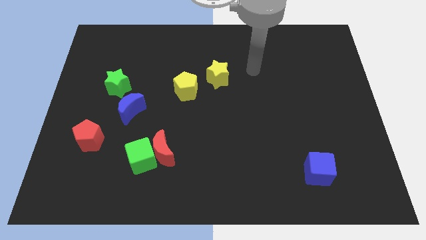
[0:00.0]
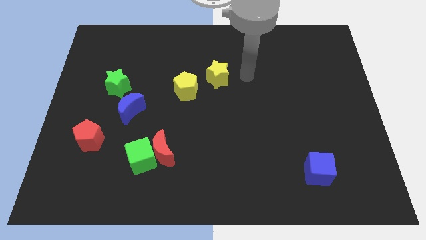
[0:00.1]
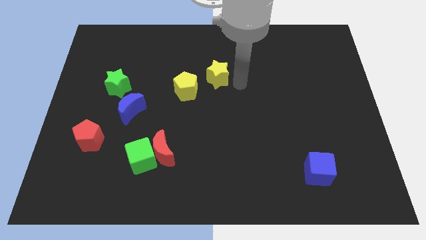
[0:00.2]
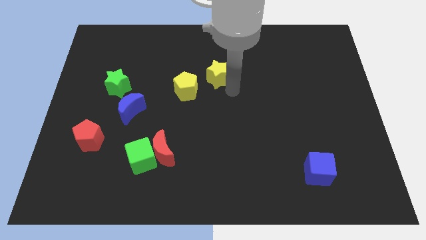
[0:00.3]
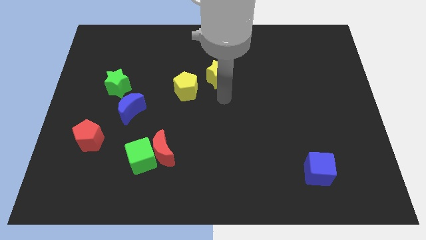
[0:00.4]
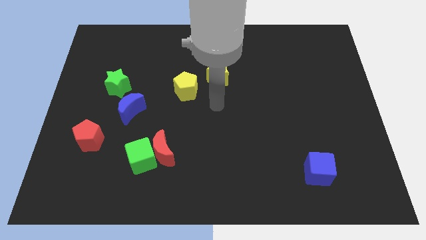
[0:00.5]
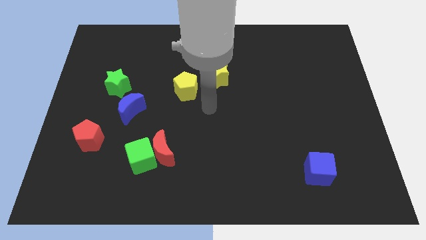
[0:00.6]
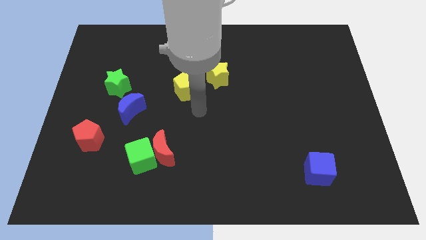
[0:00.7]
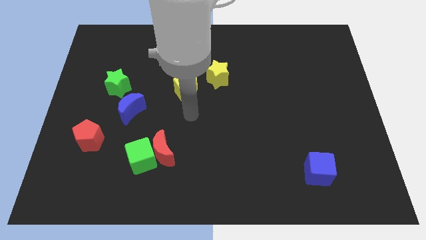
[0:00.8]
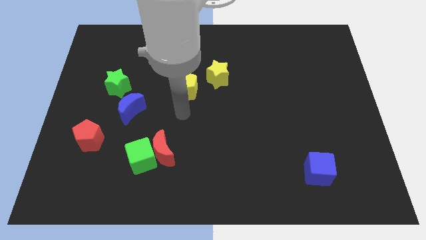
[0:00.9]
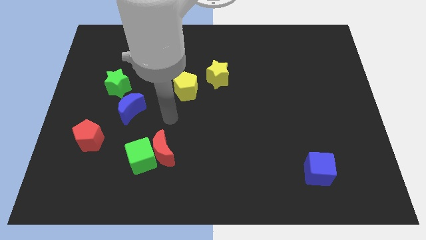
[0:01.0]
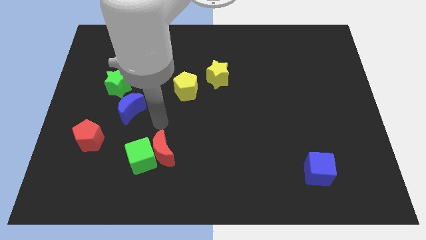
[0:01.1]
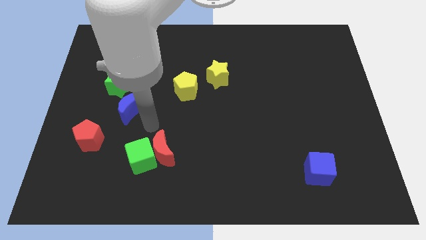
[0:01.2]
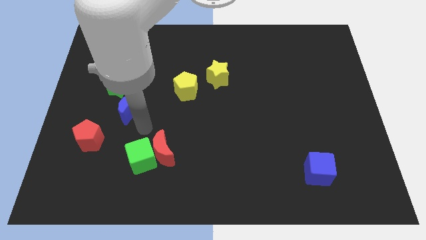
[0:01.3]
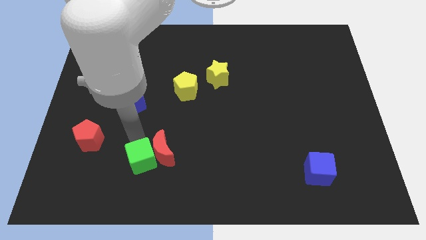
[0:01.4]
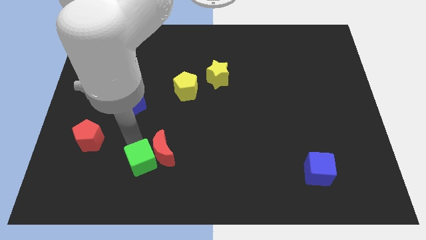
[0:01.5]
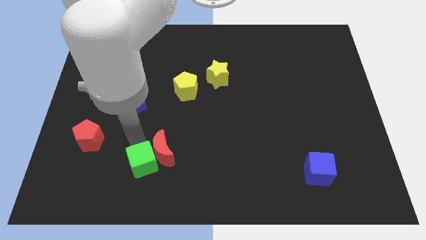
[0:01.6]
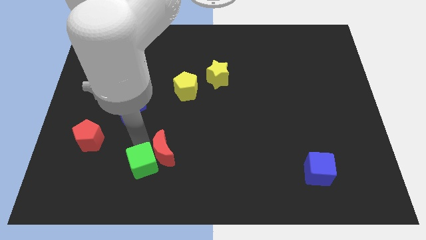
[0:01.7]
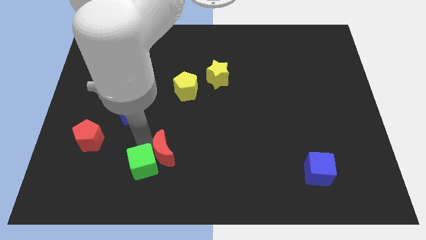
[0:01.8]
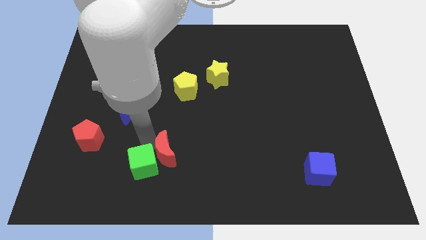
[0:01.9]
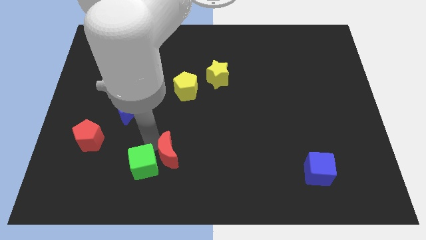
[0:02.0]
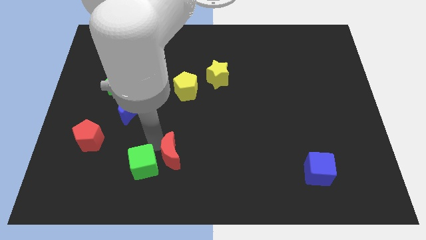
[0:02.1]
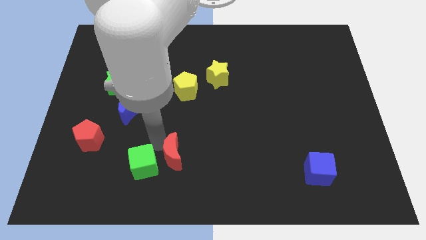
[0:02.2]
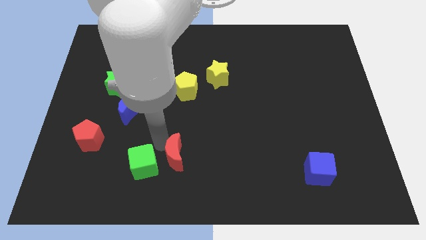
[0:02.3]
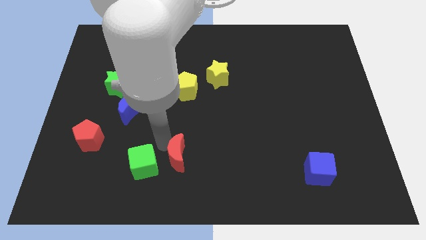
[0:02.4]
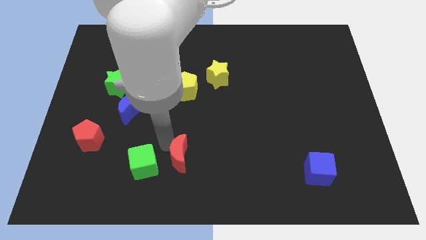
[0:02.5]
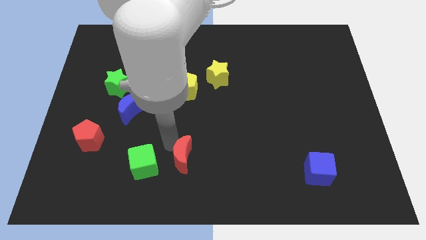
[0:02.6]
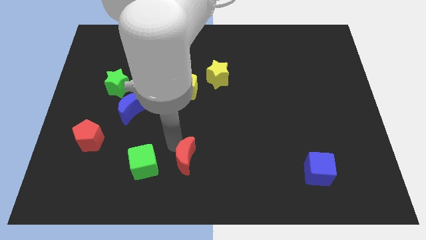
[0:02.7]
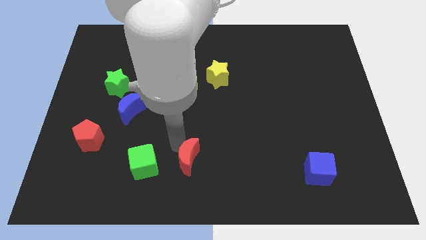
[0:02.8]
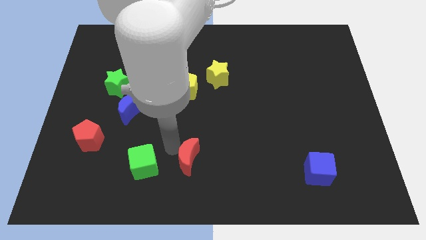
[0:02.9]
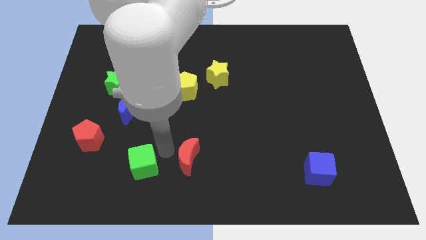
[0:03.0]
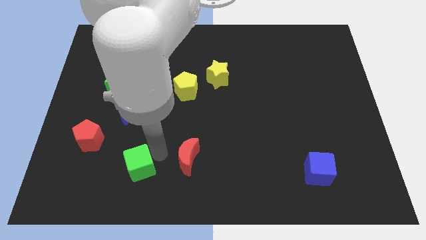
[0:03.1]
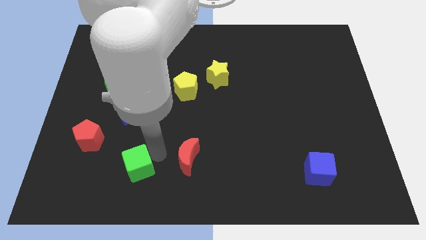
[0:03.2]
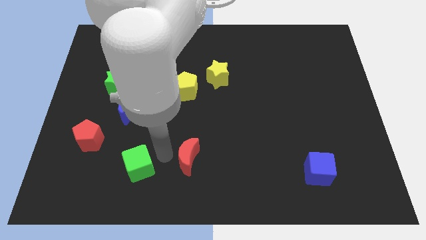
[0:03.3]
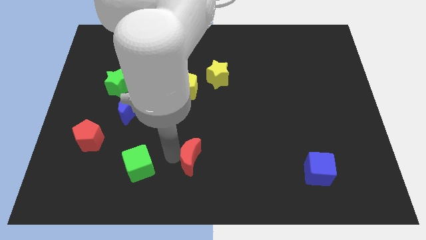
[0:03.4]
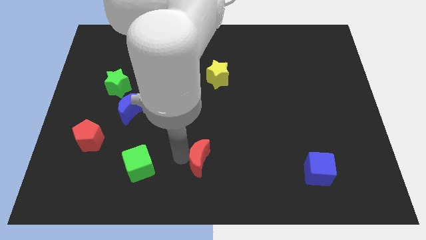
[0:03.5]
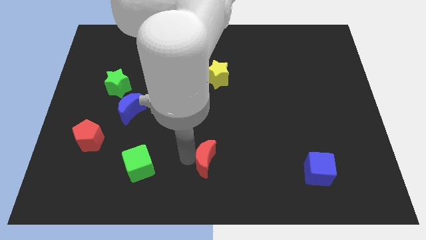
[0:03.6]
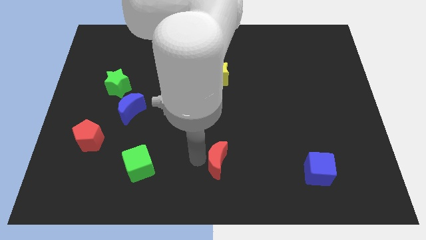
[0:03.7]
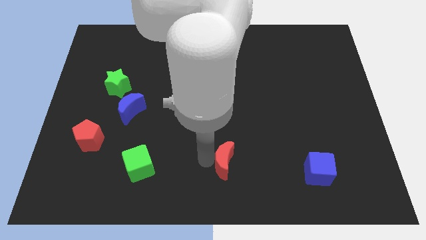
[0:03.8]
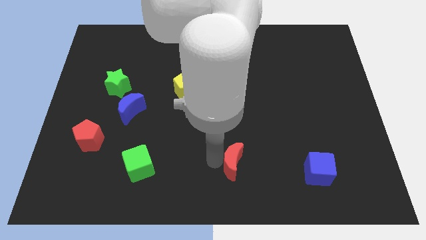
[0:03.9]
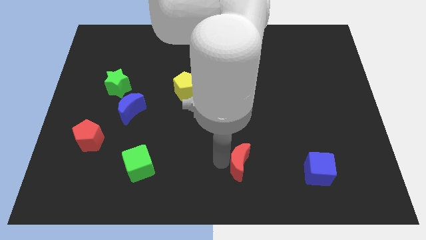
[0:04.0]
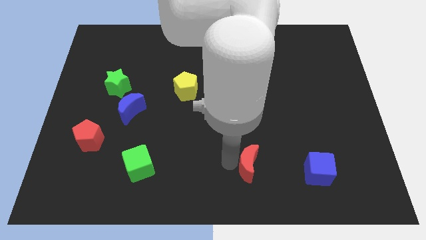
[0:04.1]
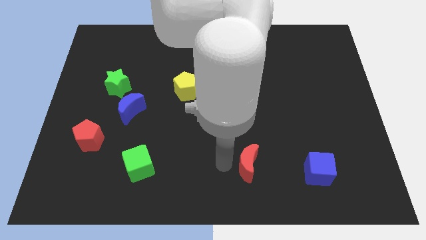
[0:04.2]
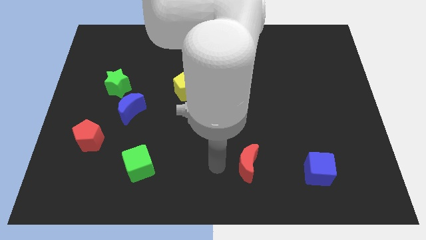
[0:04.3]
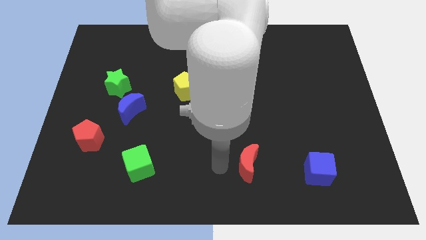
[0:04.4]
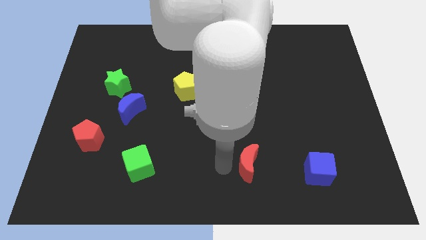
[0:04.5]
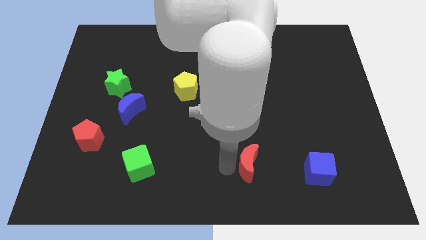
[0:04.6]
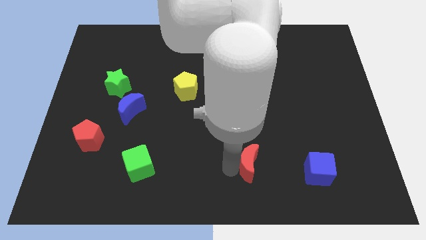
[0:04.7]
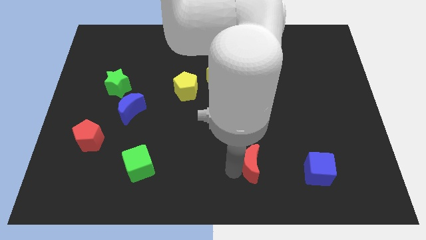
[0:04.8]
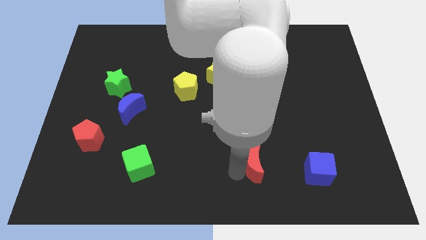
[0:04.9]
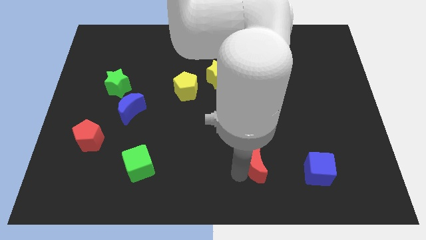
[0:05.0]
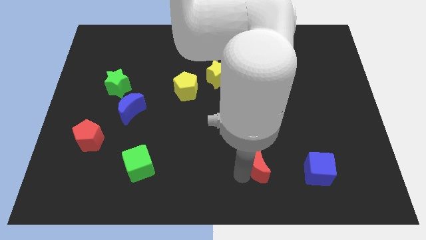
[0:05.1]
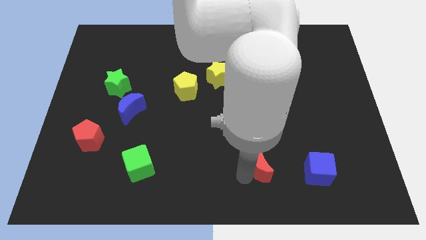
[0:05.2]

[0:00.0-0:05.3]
slide the red moon right

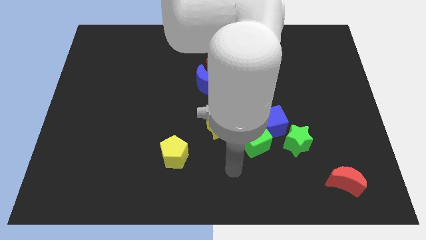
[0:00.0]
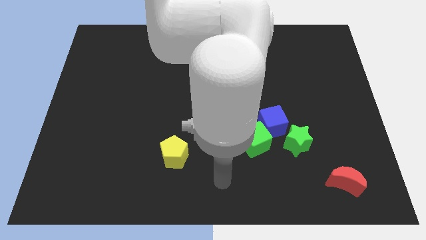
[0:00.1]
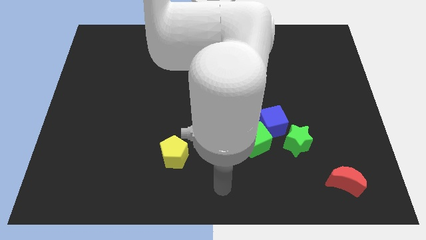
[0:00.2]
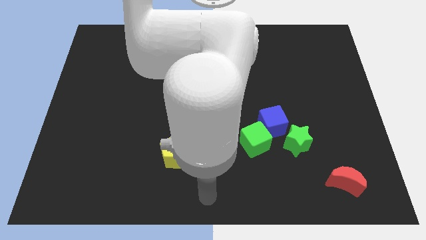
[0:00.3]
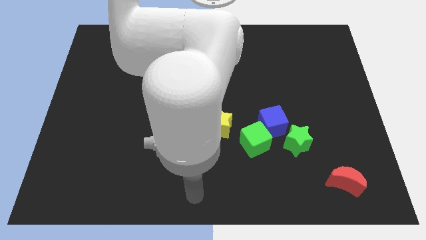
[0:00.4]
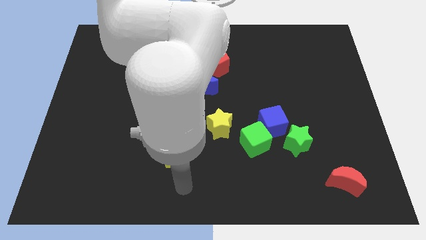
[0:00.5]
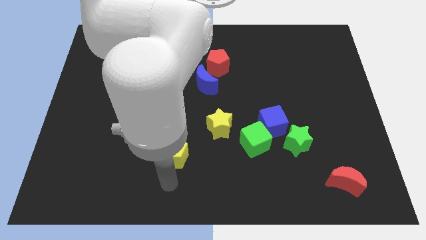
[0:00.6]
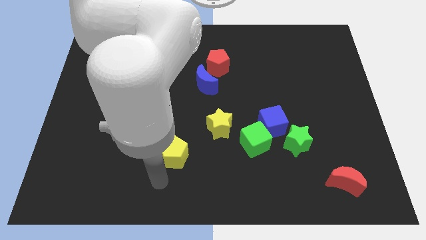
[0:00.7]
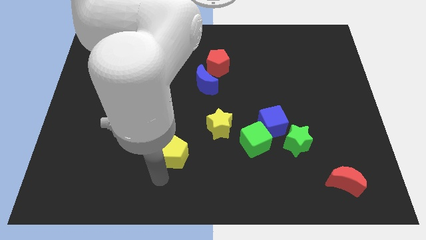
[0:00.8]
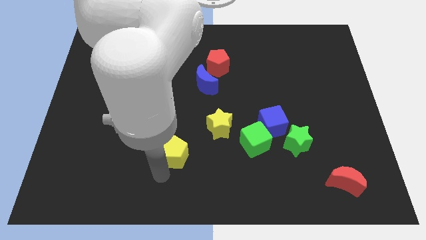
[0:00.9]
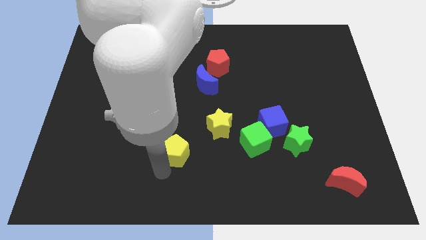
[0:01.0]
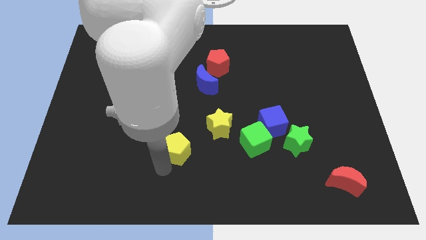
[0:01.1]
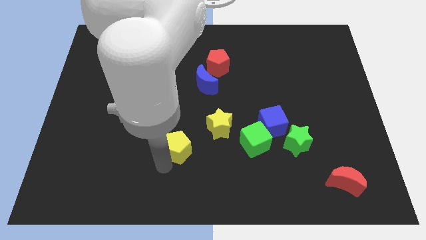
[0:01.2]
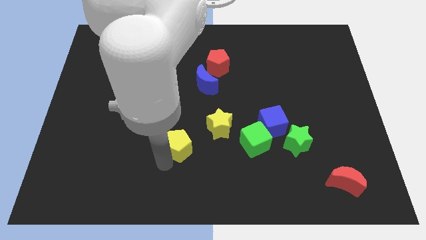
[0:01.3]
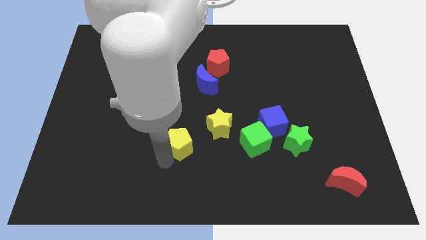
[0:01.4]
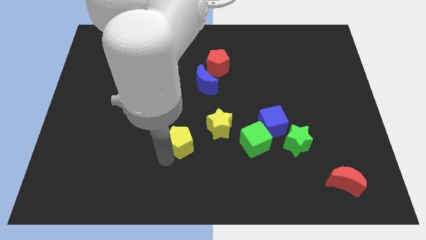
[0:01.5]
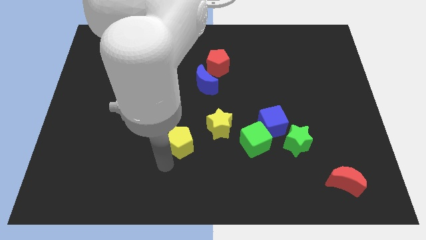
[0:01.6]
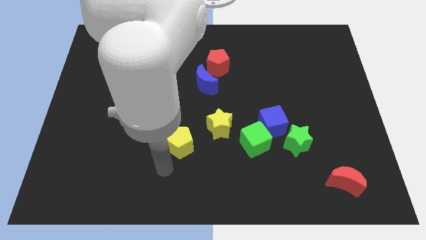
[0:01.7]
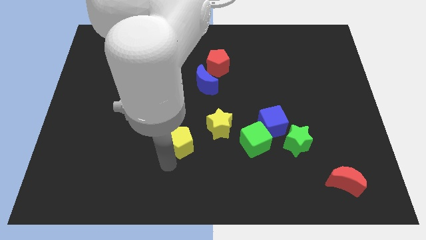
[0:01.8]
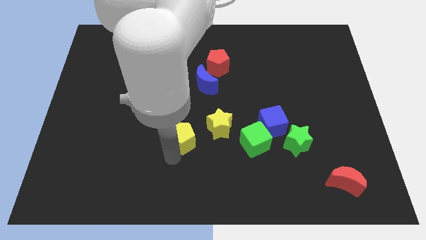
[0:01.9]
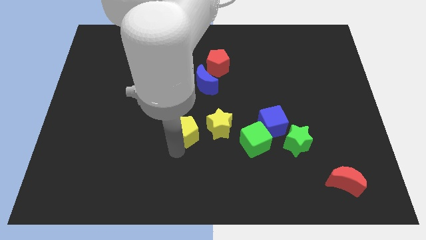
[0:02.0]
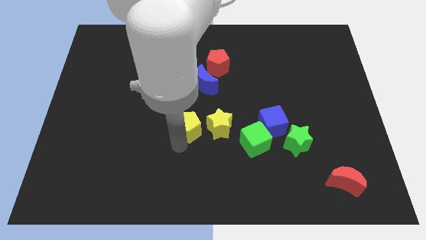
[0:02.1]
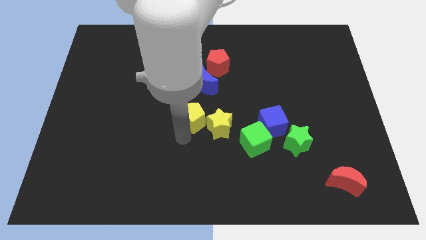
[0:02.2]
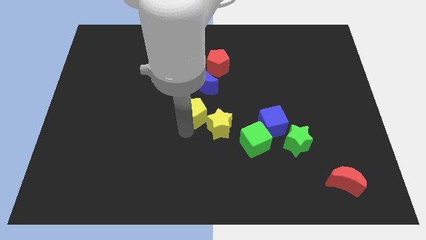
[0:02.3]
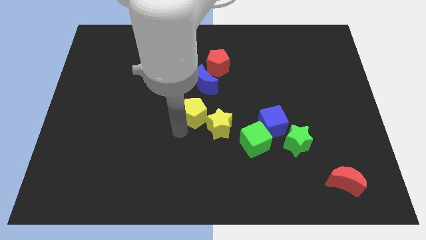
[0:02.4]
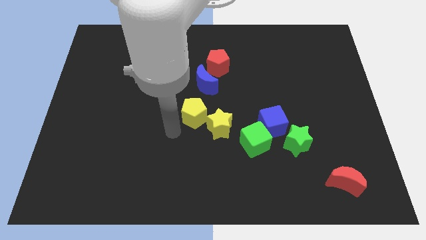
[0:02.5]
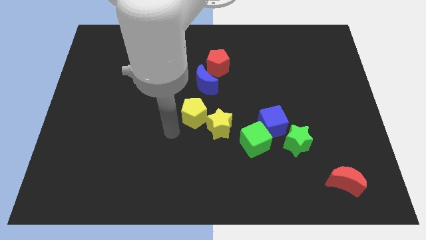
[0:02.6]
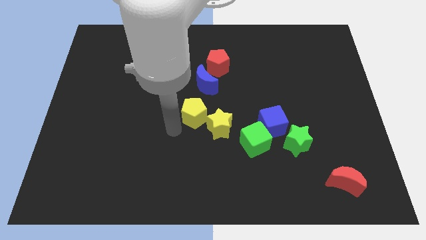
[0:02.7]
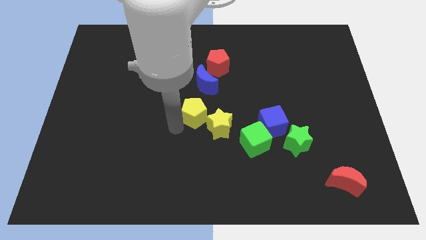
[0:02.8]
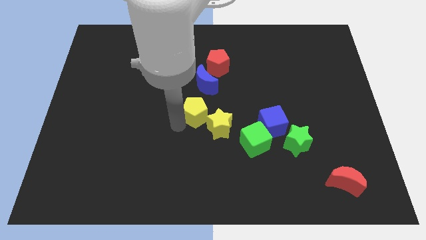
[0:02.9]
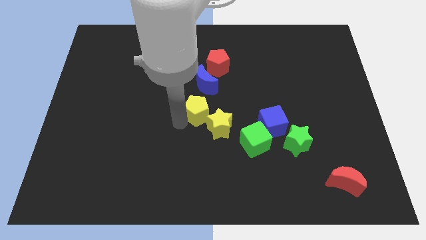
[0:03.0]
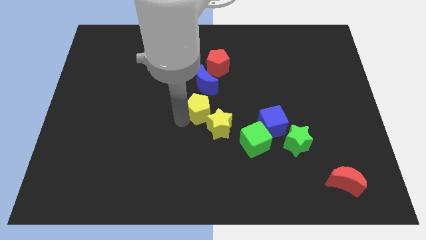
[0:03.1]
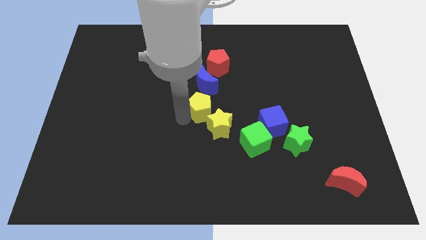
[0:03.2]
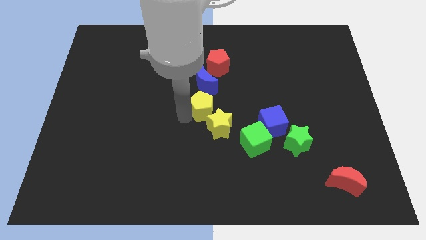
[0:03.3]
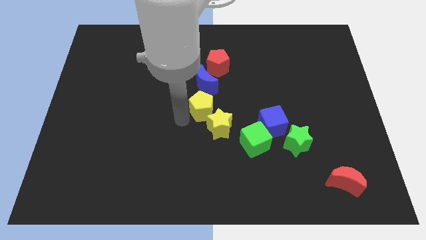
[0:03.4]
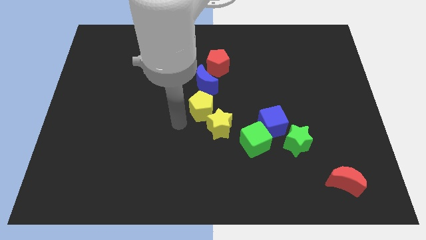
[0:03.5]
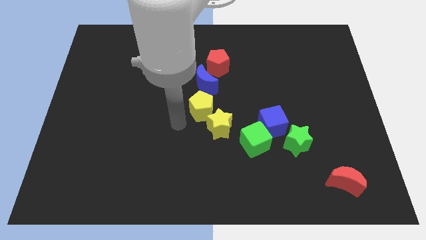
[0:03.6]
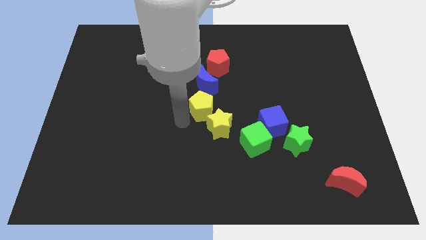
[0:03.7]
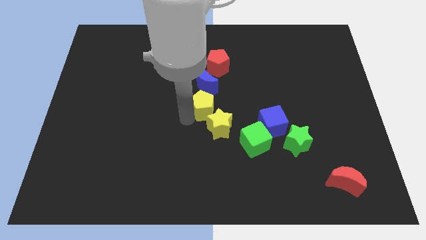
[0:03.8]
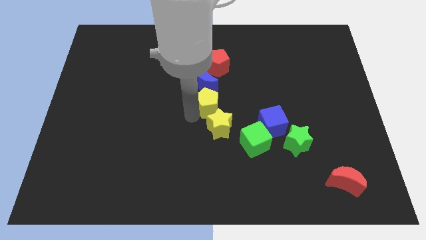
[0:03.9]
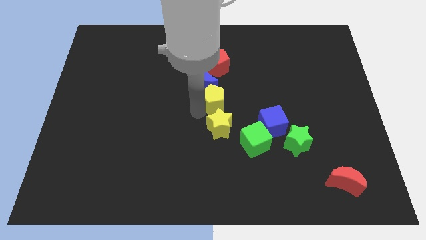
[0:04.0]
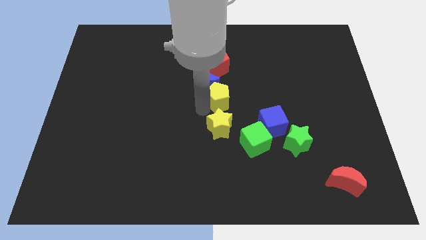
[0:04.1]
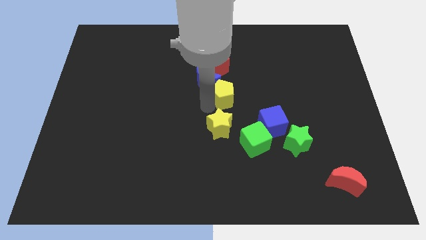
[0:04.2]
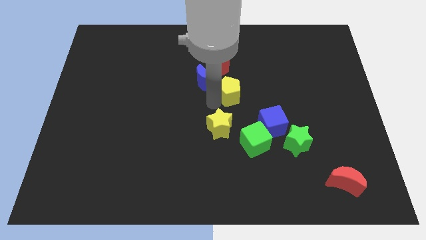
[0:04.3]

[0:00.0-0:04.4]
push the yellow pentagon diagonally upwards and to the right
